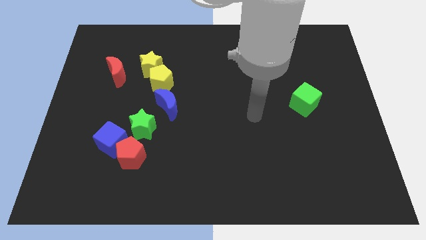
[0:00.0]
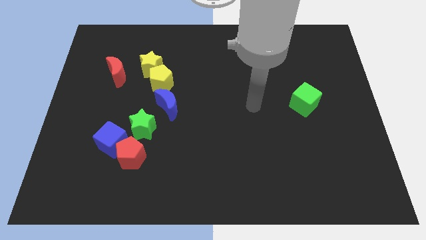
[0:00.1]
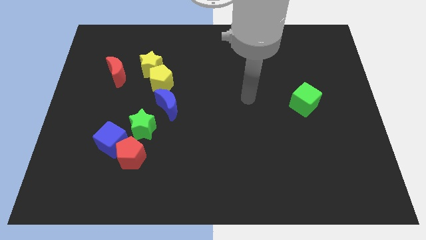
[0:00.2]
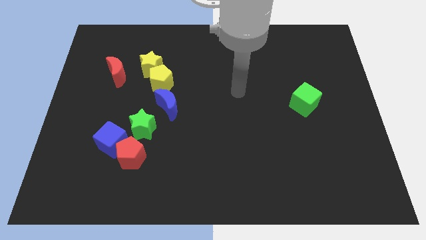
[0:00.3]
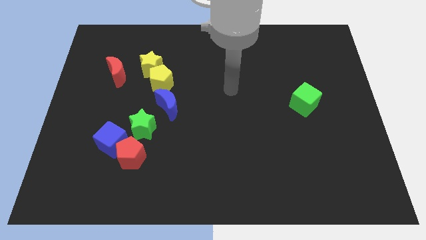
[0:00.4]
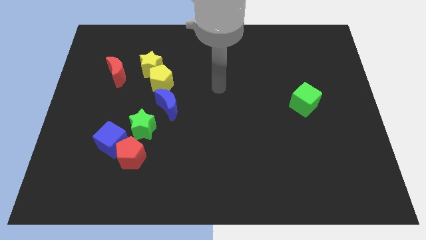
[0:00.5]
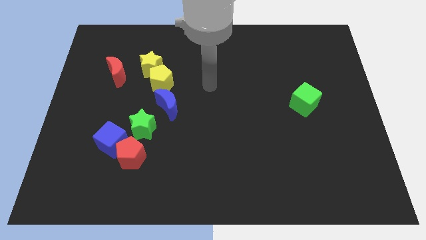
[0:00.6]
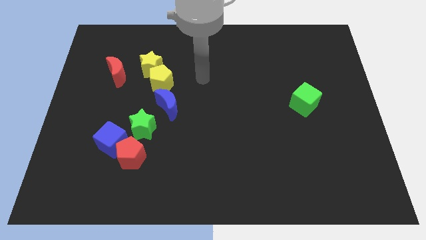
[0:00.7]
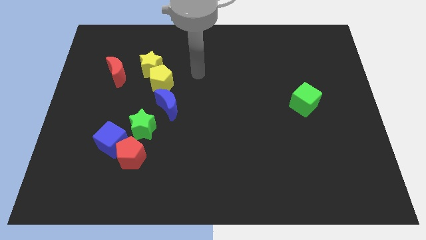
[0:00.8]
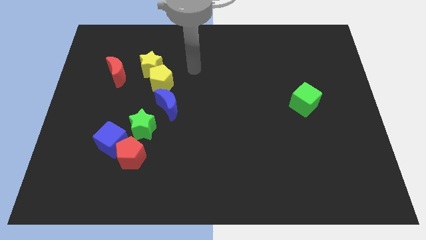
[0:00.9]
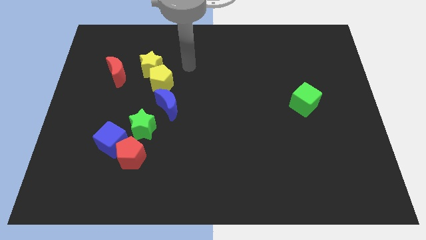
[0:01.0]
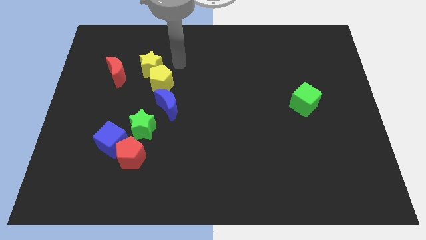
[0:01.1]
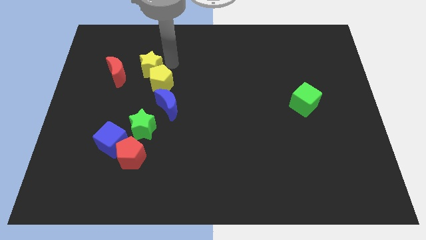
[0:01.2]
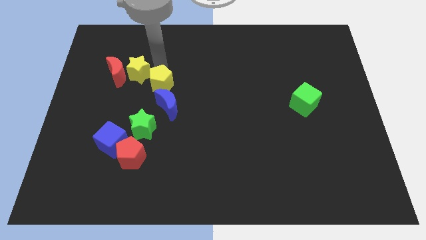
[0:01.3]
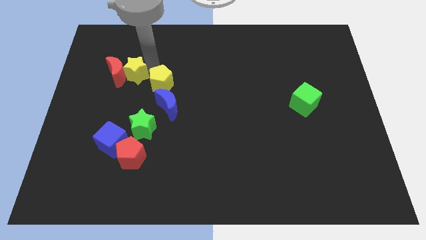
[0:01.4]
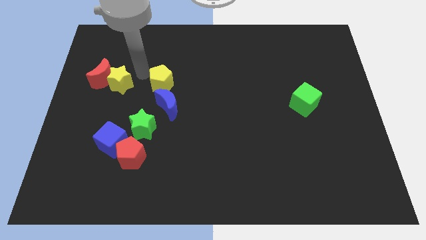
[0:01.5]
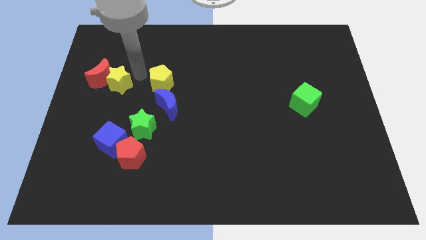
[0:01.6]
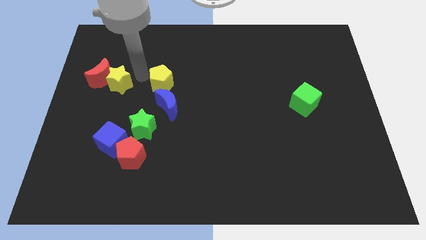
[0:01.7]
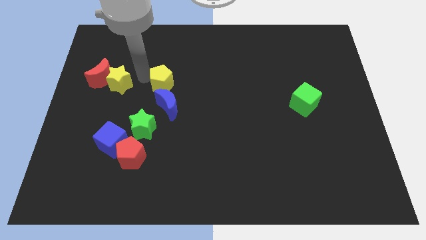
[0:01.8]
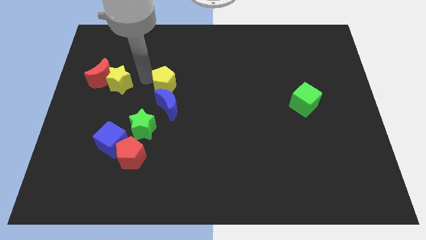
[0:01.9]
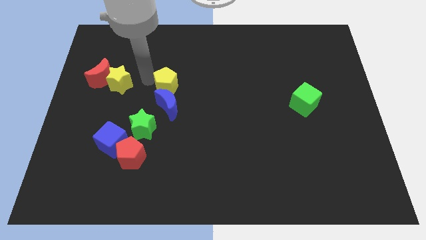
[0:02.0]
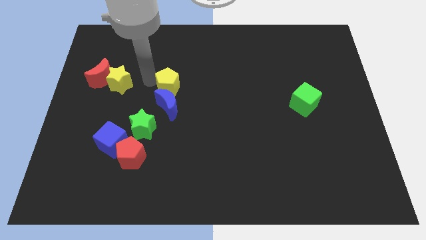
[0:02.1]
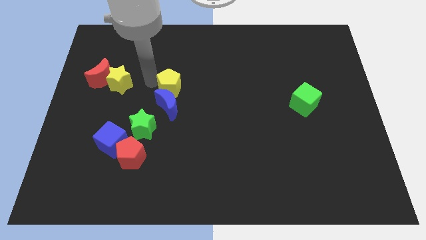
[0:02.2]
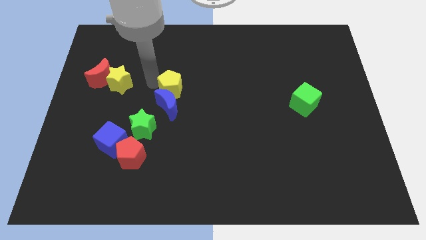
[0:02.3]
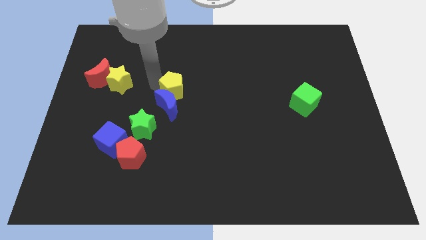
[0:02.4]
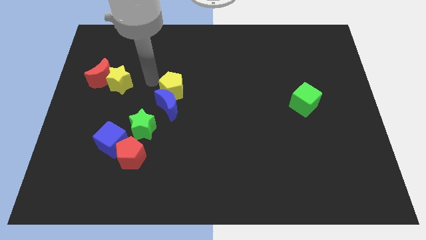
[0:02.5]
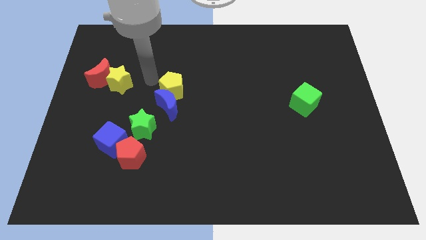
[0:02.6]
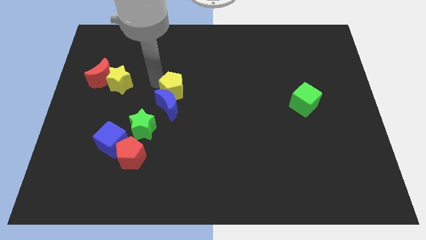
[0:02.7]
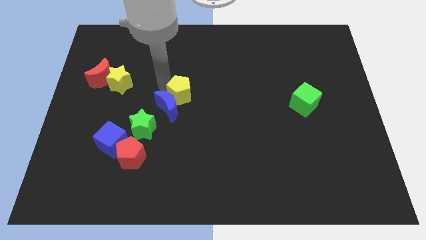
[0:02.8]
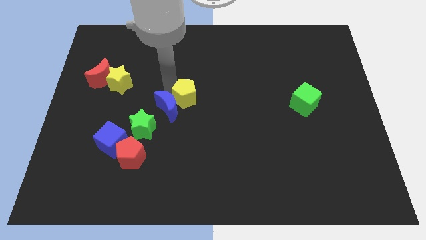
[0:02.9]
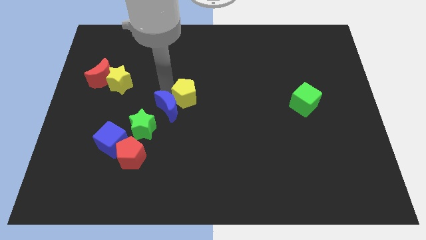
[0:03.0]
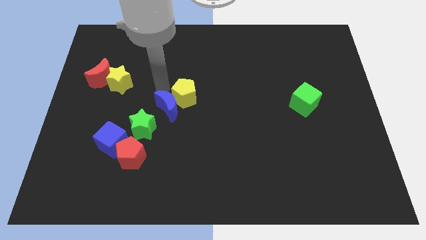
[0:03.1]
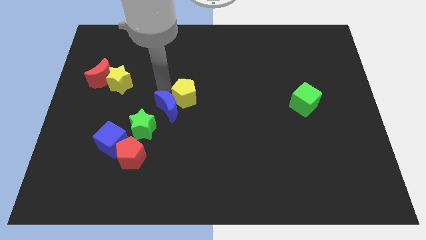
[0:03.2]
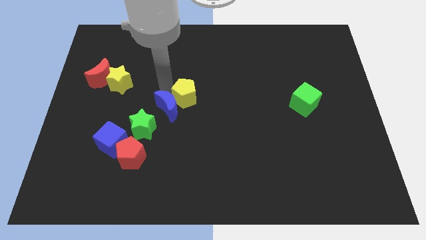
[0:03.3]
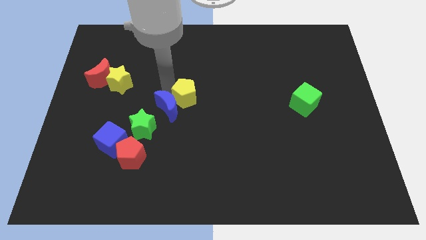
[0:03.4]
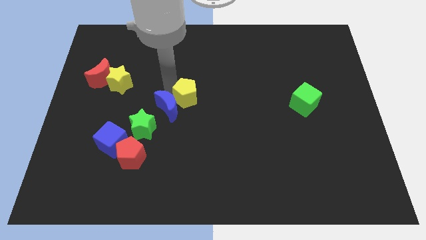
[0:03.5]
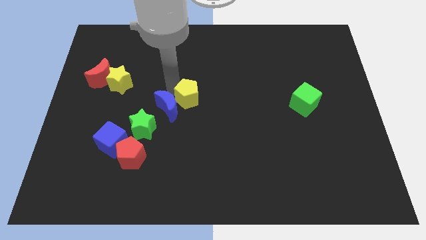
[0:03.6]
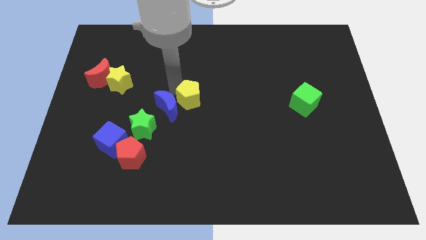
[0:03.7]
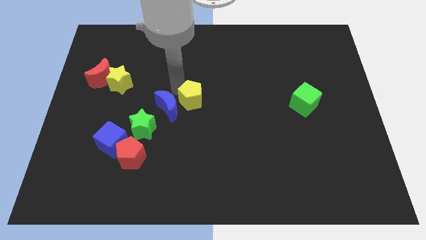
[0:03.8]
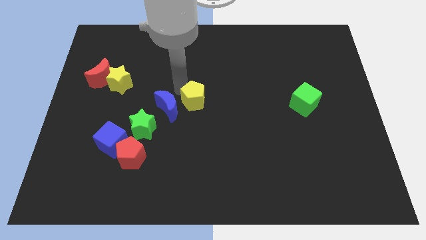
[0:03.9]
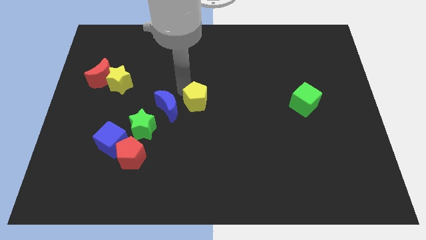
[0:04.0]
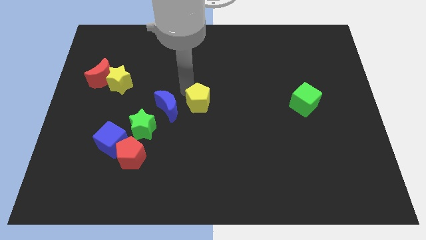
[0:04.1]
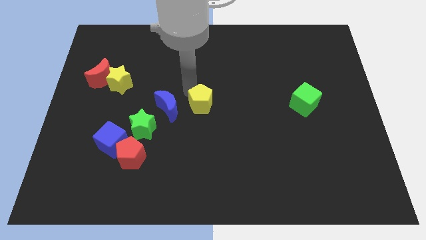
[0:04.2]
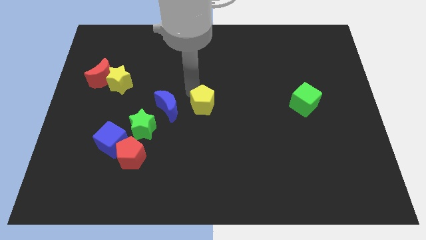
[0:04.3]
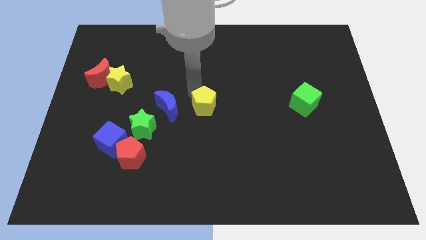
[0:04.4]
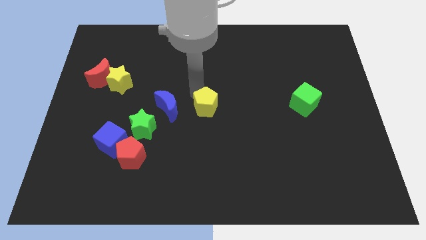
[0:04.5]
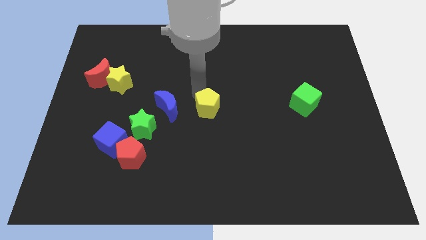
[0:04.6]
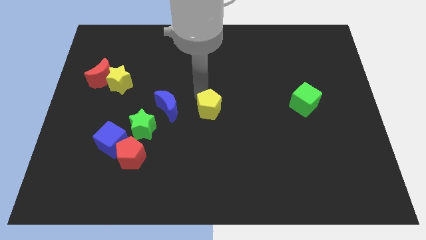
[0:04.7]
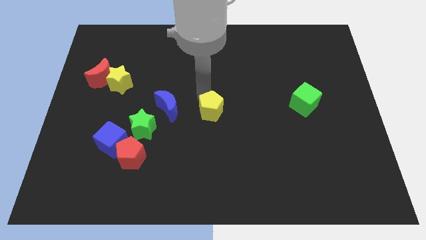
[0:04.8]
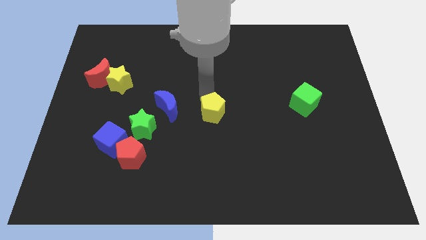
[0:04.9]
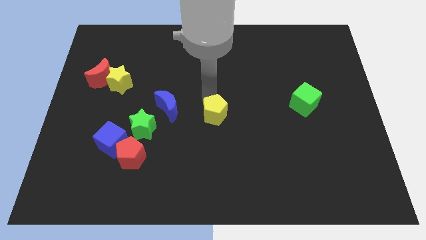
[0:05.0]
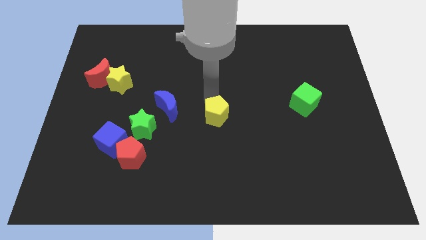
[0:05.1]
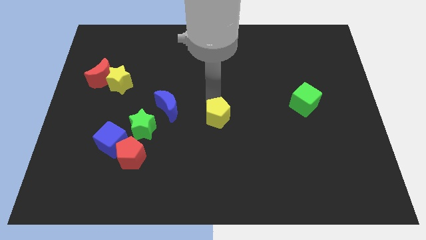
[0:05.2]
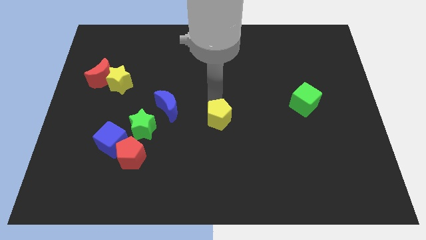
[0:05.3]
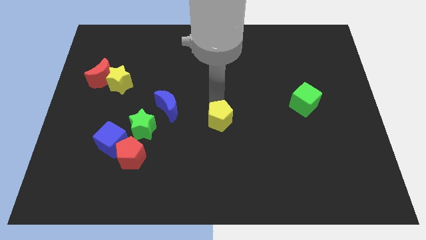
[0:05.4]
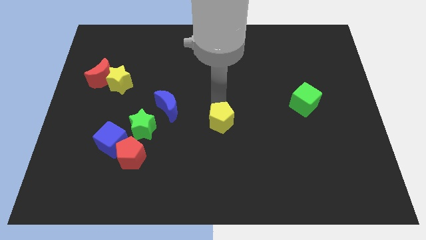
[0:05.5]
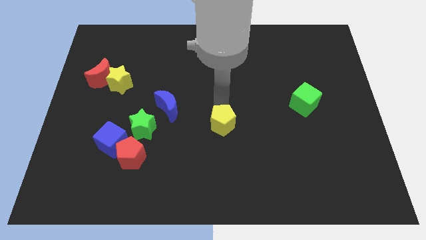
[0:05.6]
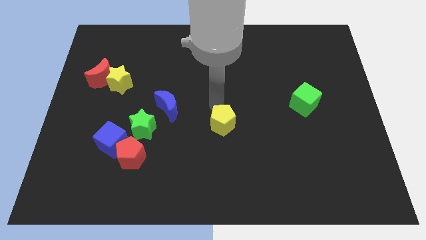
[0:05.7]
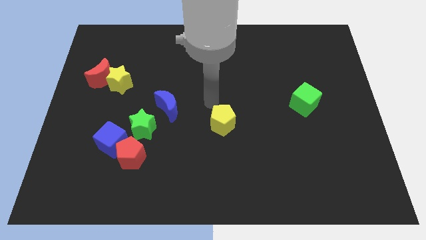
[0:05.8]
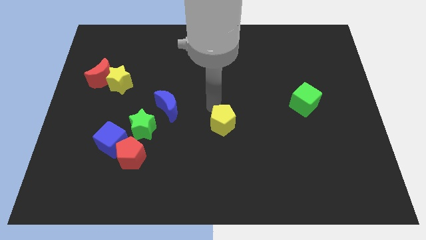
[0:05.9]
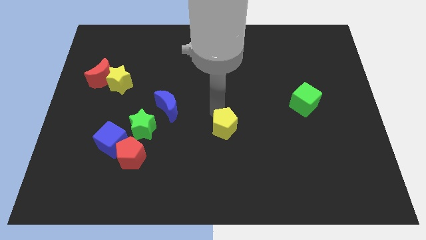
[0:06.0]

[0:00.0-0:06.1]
push the yellow pentagon downwards and then to the right

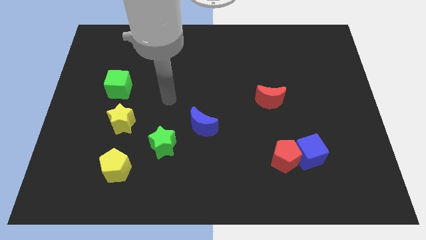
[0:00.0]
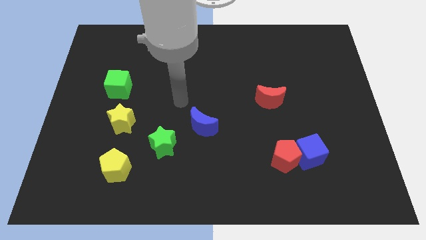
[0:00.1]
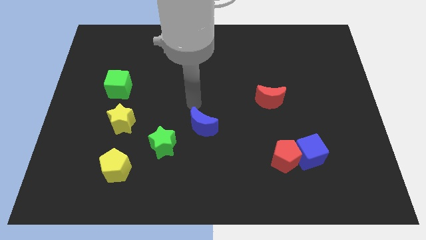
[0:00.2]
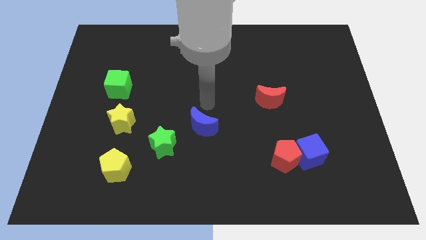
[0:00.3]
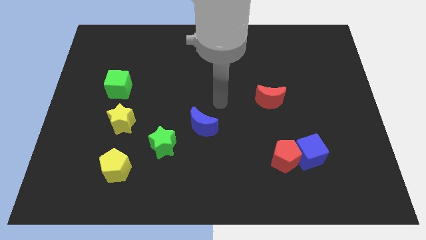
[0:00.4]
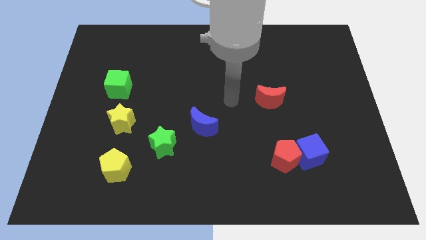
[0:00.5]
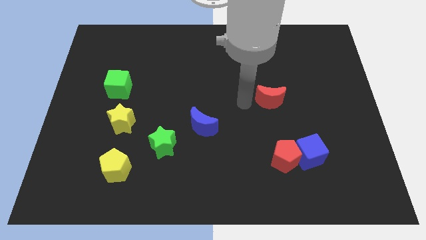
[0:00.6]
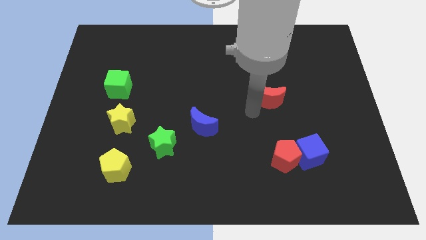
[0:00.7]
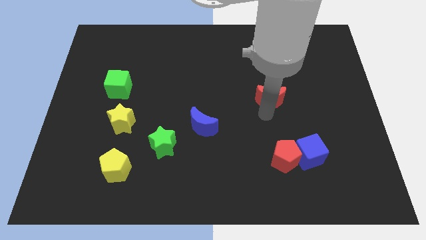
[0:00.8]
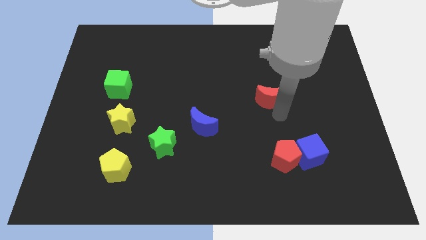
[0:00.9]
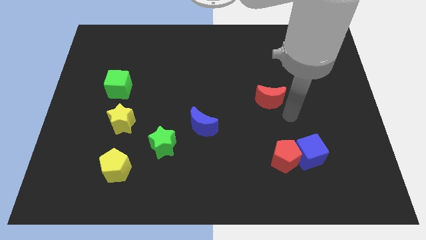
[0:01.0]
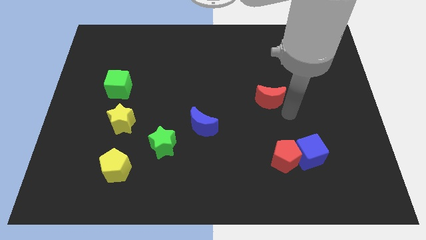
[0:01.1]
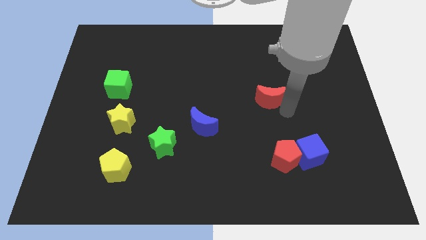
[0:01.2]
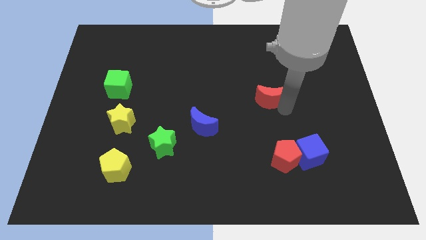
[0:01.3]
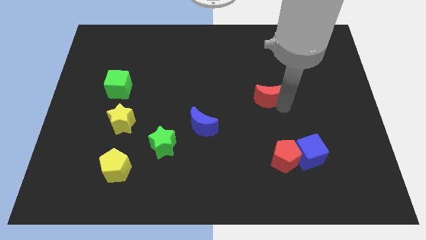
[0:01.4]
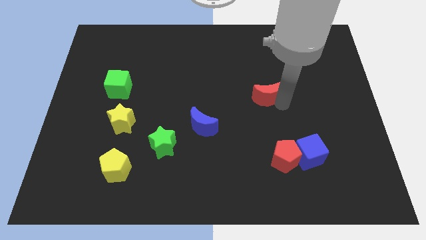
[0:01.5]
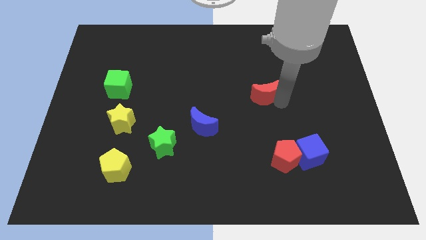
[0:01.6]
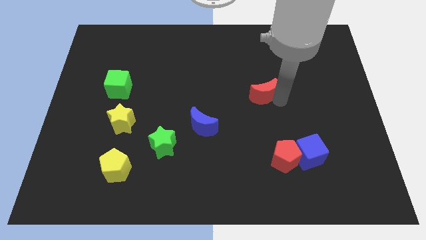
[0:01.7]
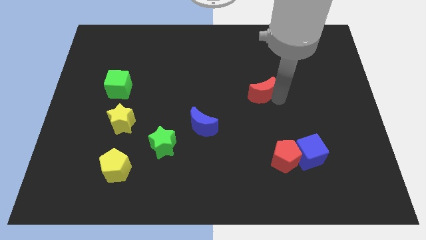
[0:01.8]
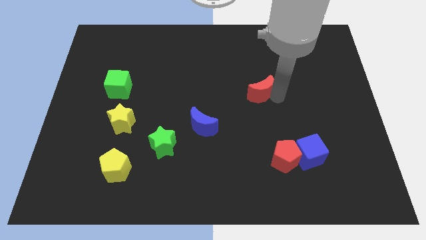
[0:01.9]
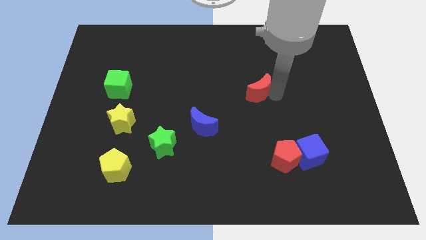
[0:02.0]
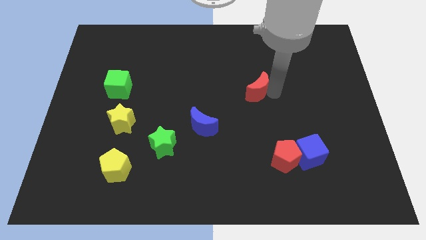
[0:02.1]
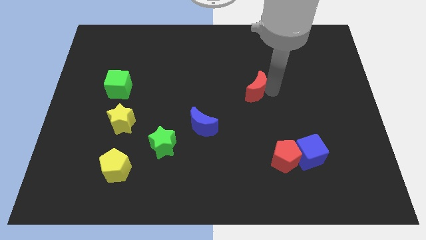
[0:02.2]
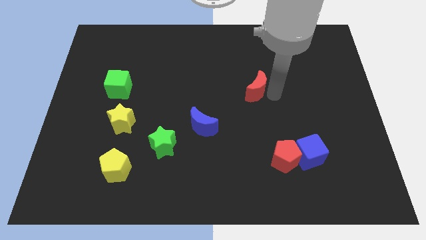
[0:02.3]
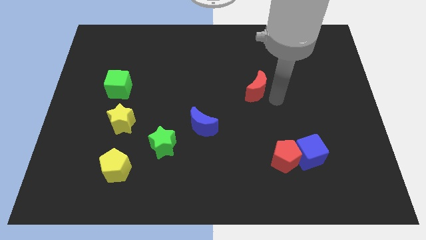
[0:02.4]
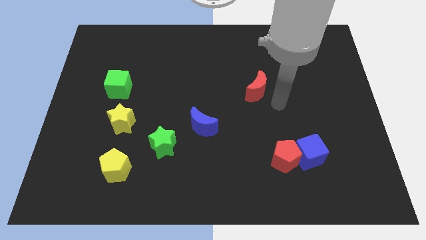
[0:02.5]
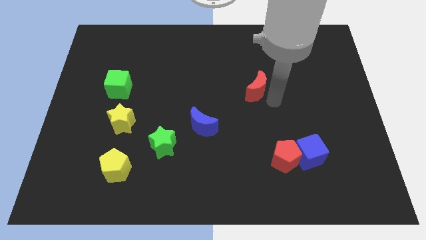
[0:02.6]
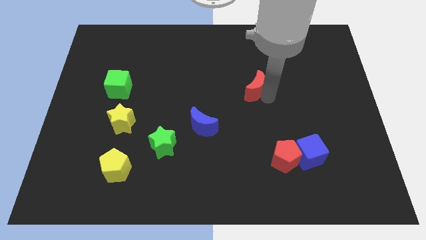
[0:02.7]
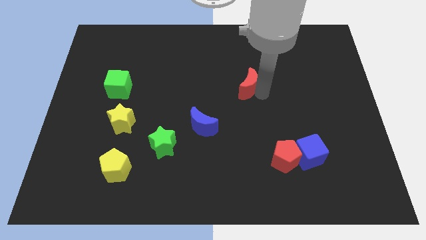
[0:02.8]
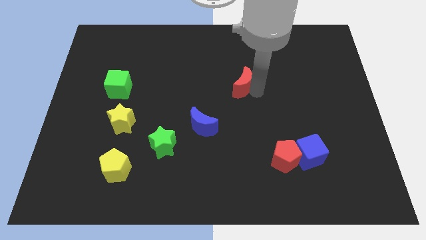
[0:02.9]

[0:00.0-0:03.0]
push the red moon up and then left a little
